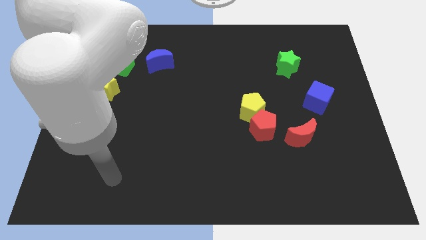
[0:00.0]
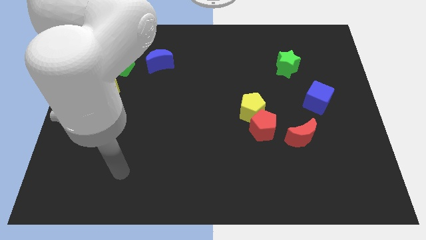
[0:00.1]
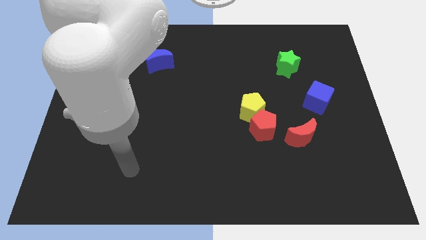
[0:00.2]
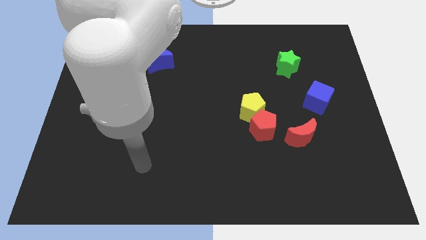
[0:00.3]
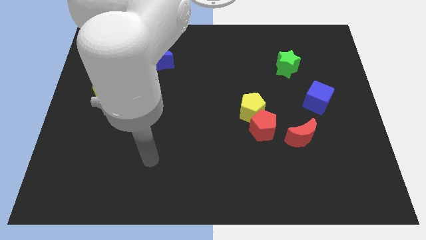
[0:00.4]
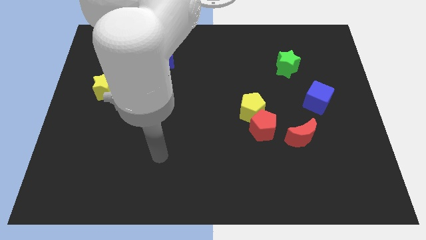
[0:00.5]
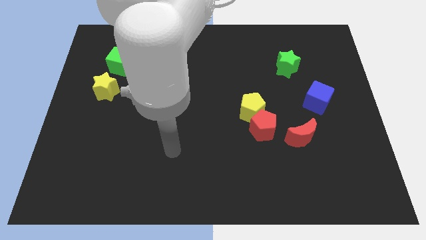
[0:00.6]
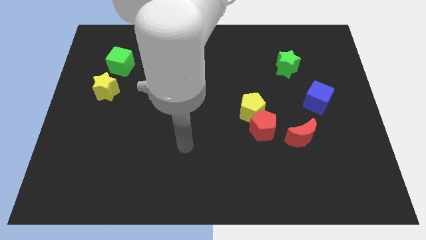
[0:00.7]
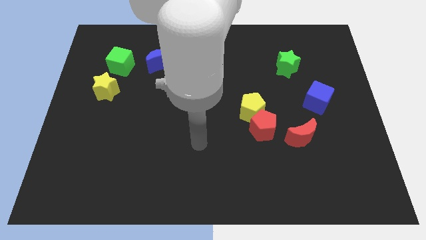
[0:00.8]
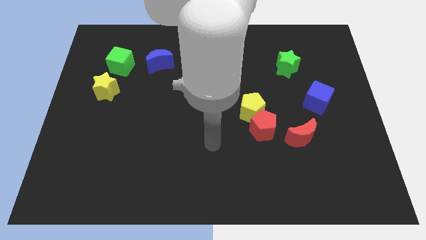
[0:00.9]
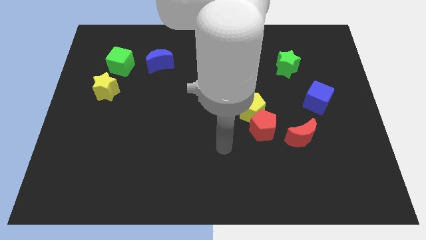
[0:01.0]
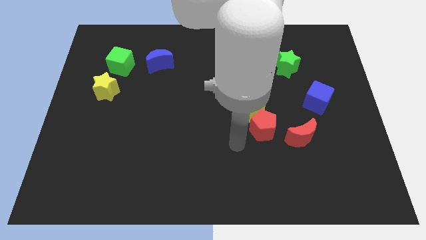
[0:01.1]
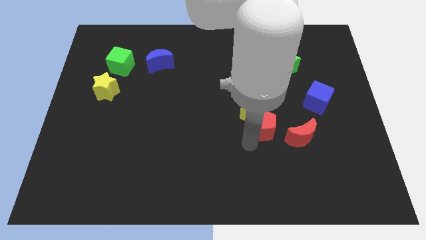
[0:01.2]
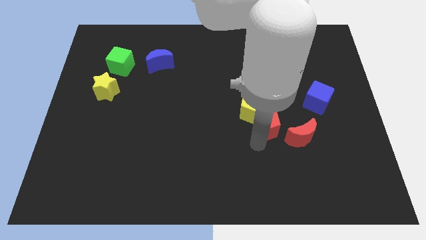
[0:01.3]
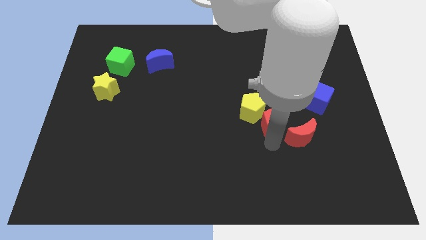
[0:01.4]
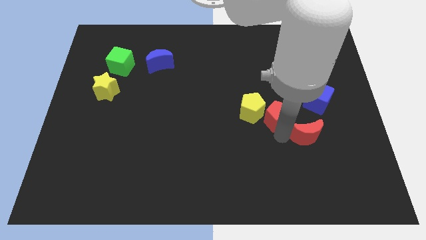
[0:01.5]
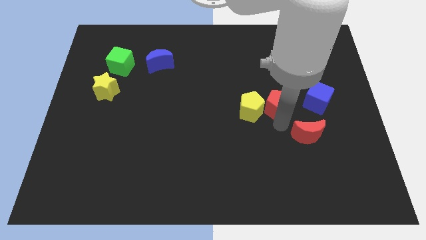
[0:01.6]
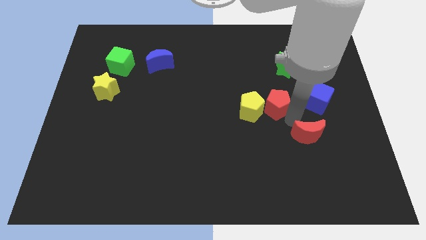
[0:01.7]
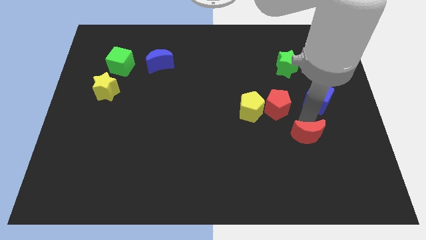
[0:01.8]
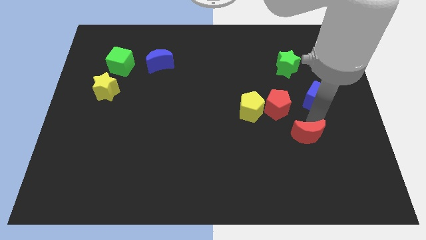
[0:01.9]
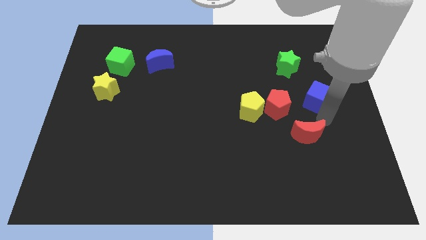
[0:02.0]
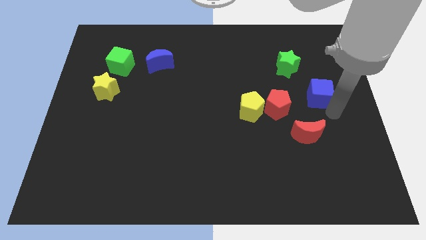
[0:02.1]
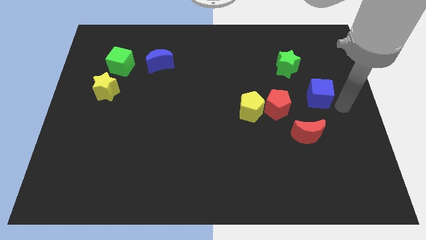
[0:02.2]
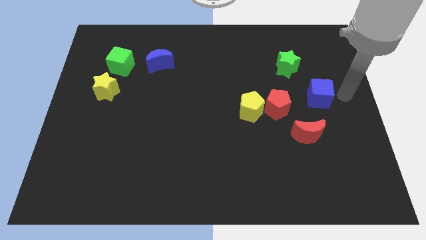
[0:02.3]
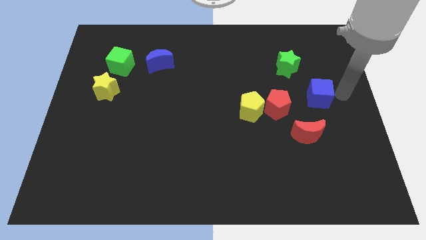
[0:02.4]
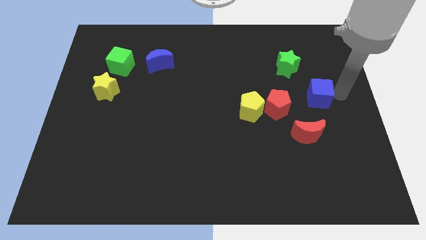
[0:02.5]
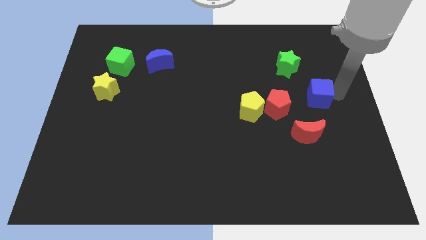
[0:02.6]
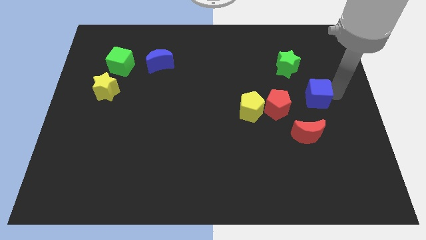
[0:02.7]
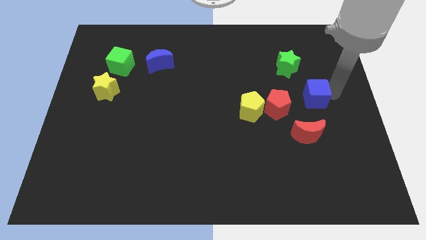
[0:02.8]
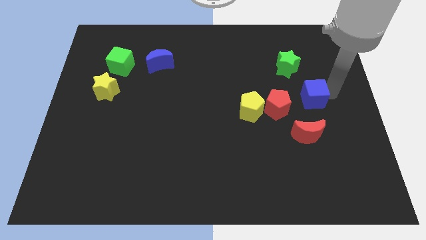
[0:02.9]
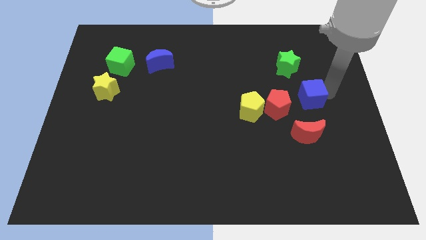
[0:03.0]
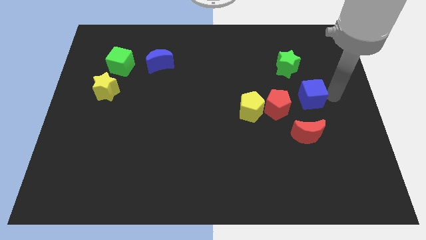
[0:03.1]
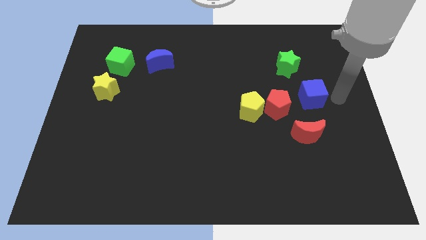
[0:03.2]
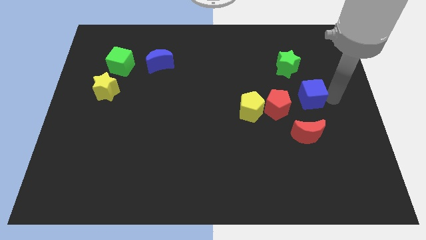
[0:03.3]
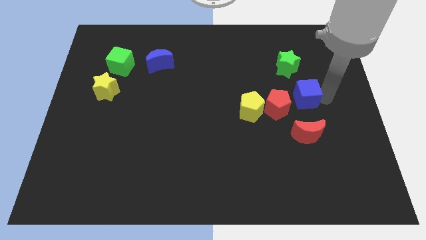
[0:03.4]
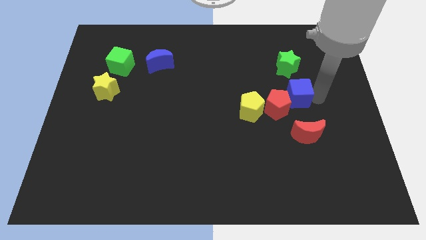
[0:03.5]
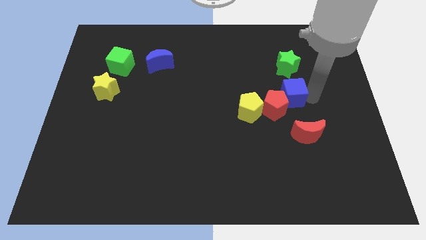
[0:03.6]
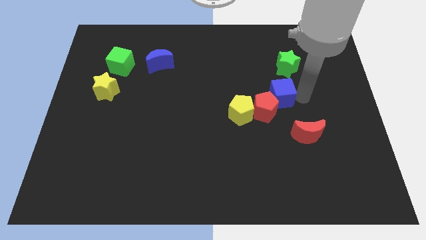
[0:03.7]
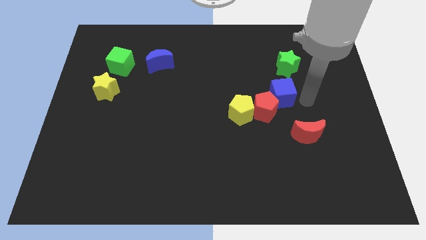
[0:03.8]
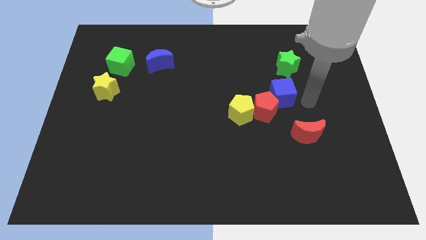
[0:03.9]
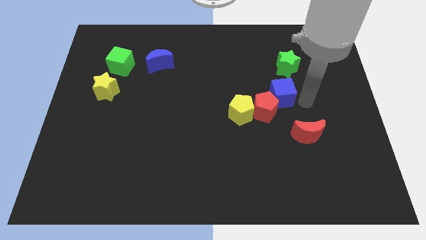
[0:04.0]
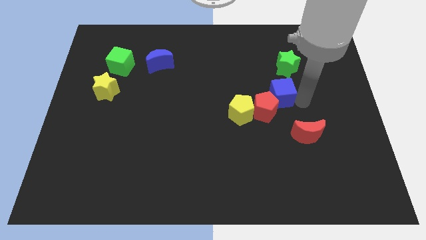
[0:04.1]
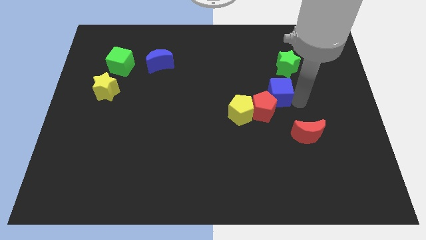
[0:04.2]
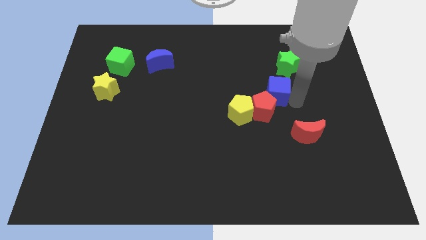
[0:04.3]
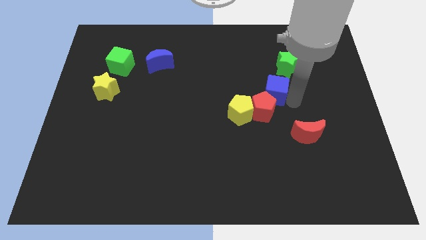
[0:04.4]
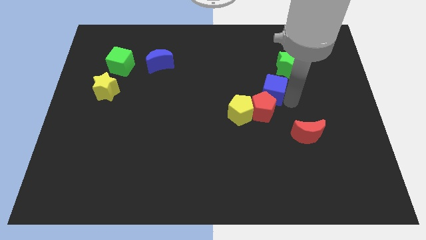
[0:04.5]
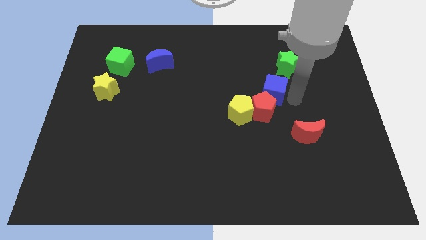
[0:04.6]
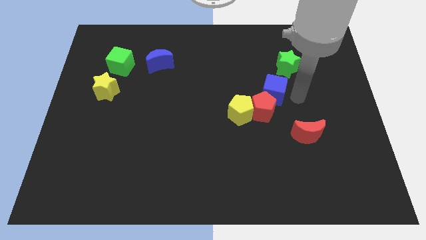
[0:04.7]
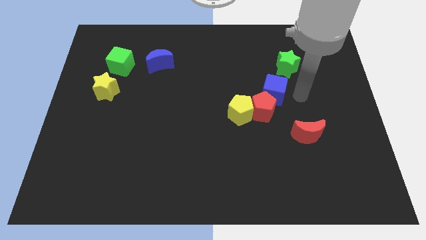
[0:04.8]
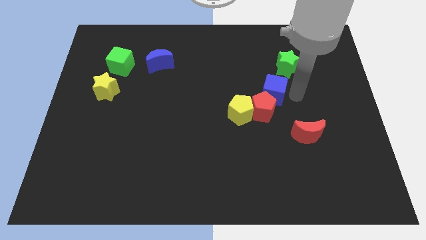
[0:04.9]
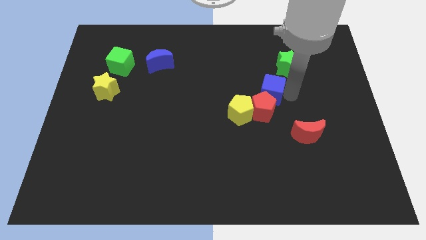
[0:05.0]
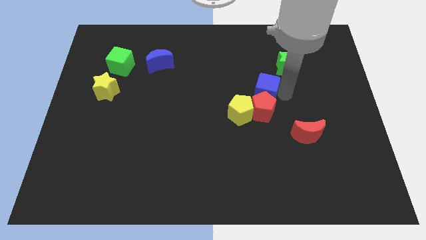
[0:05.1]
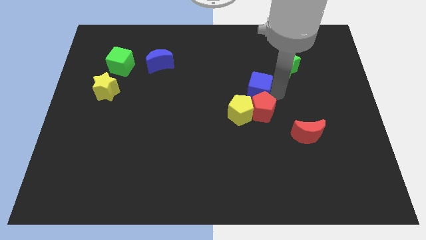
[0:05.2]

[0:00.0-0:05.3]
slide the blue cube to the middle

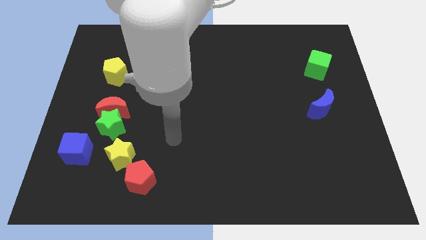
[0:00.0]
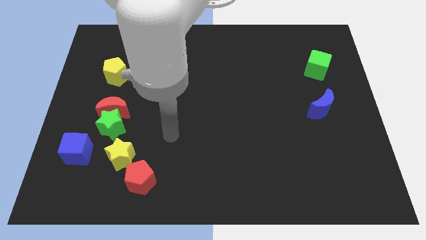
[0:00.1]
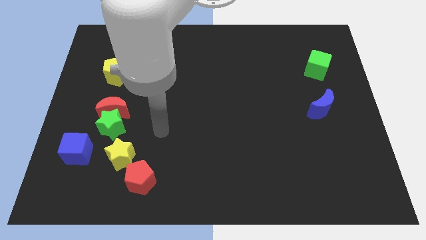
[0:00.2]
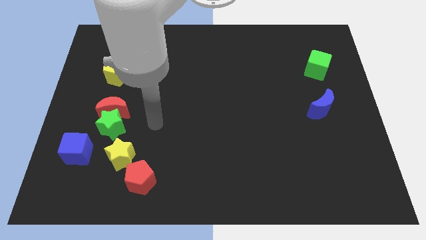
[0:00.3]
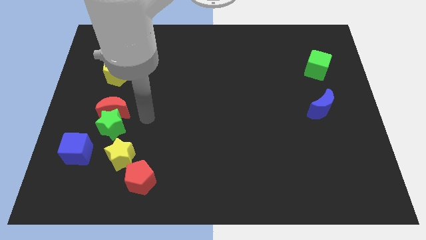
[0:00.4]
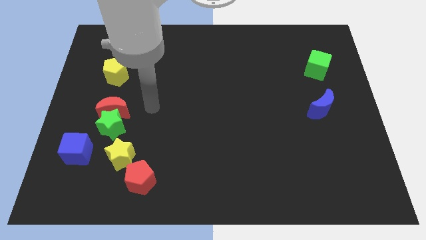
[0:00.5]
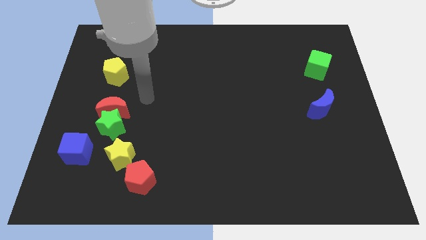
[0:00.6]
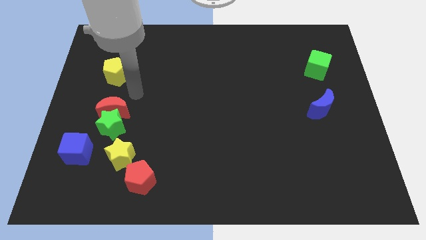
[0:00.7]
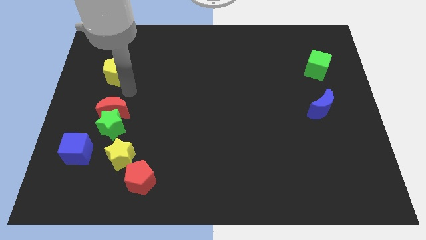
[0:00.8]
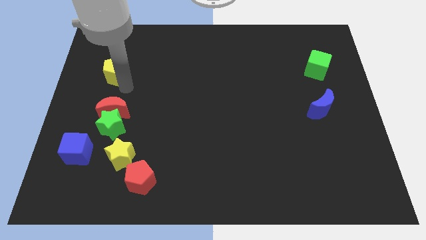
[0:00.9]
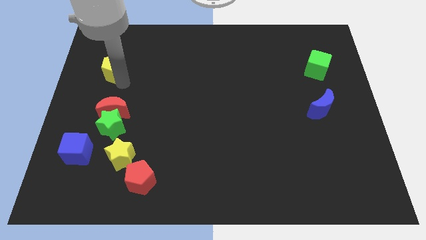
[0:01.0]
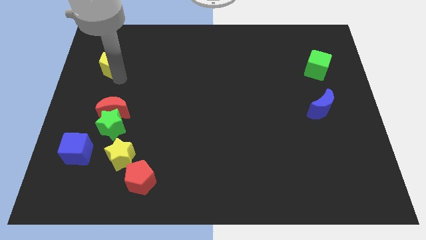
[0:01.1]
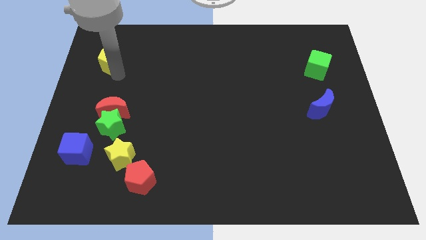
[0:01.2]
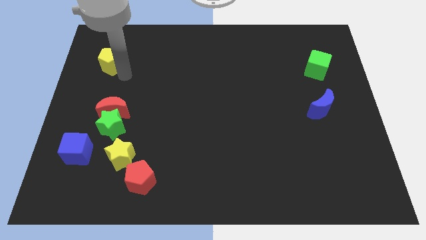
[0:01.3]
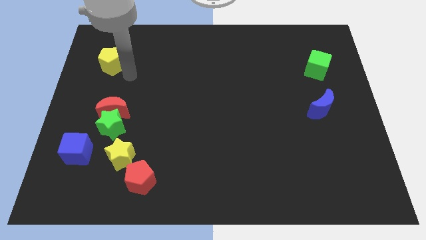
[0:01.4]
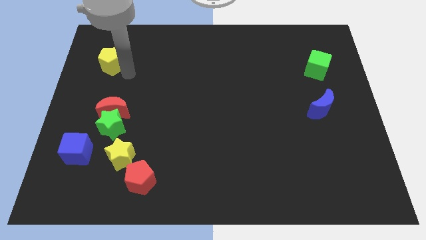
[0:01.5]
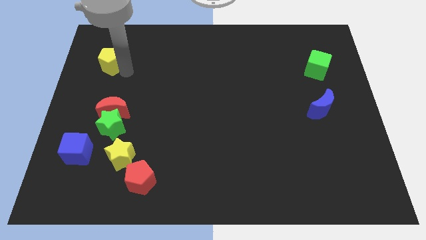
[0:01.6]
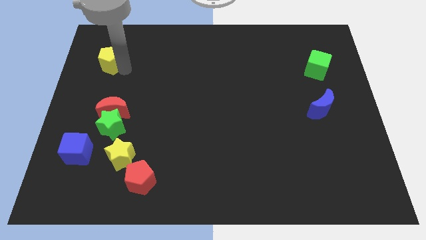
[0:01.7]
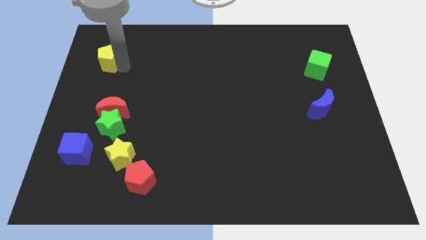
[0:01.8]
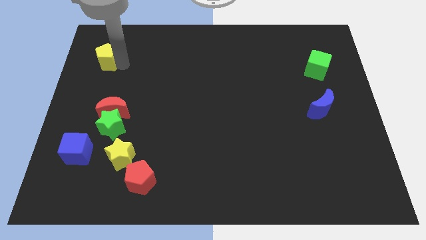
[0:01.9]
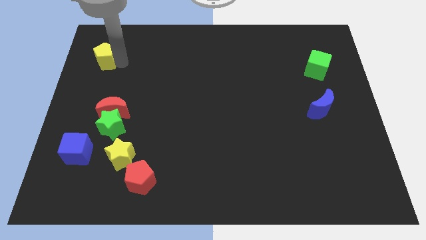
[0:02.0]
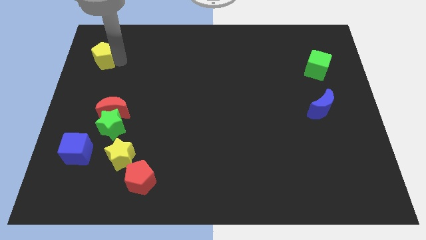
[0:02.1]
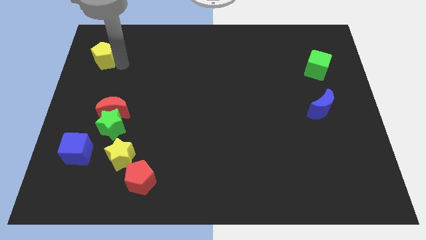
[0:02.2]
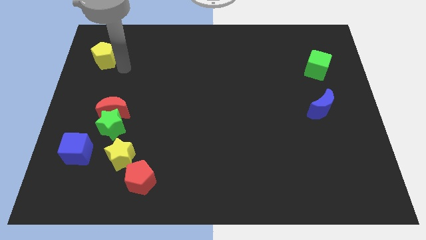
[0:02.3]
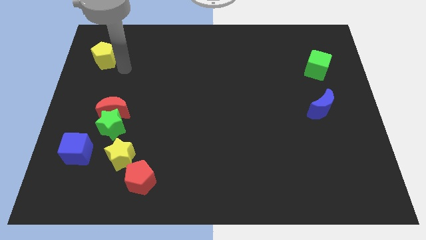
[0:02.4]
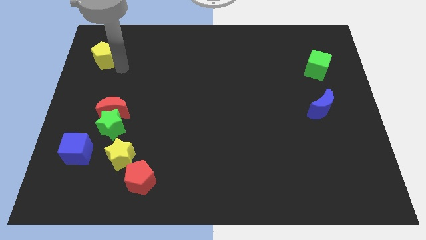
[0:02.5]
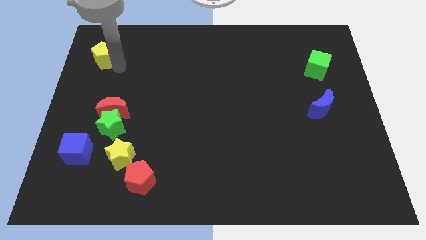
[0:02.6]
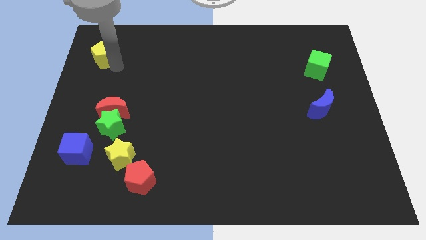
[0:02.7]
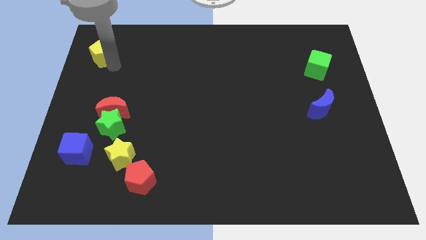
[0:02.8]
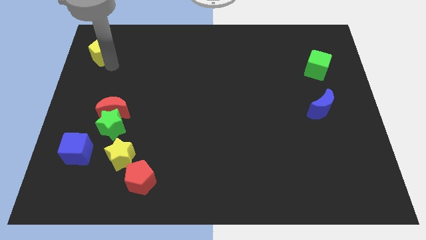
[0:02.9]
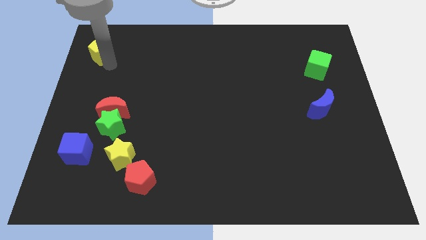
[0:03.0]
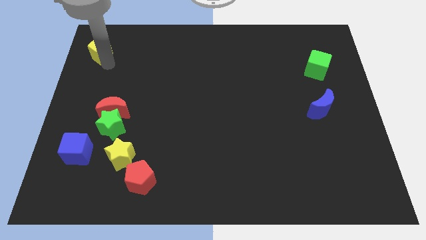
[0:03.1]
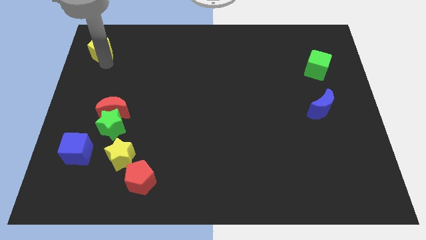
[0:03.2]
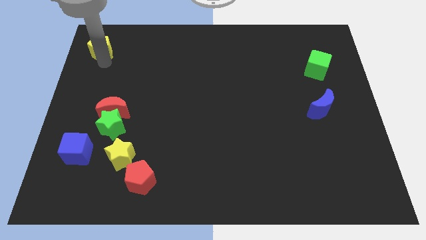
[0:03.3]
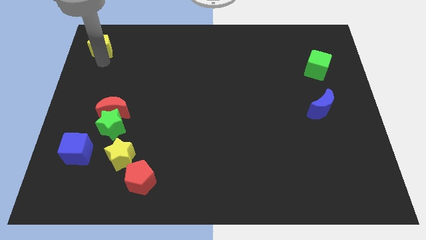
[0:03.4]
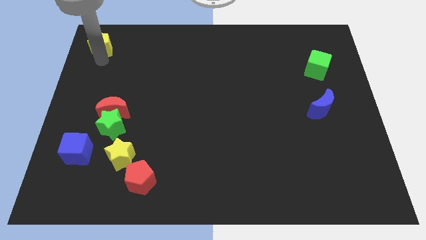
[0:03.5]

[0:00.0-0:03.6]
push the yellow pentagon to the upper left corner
